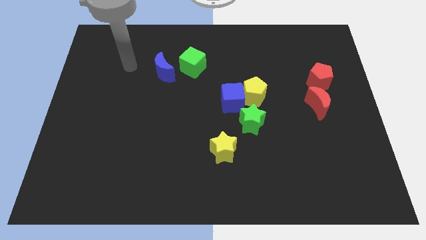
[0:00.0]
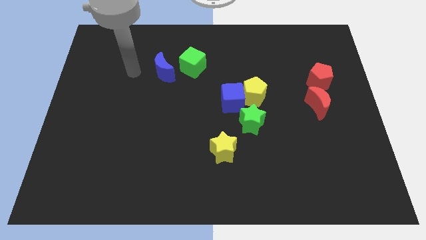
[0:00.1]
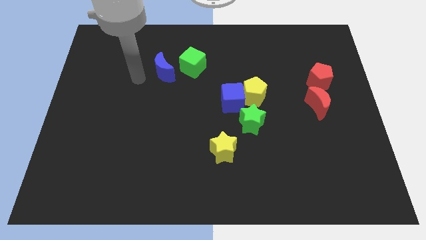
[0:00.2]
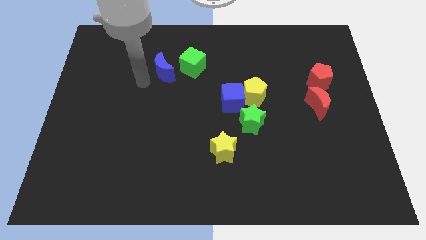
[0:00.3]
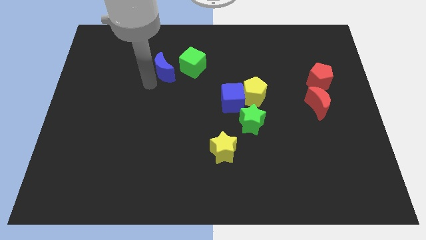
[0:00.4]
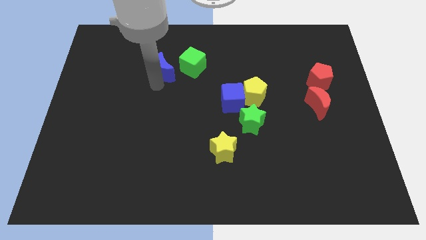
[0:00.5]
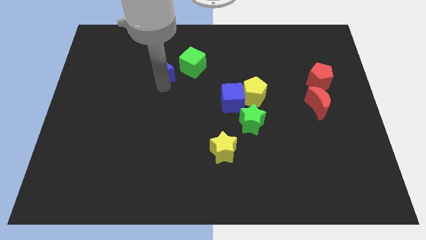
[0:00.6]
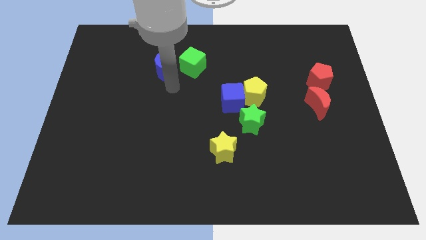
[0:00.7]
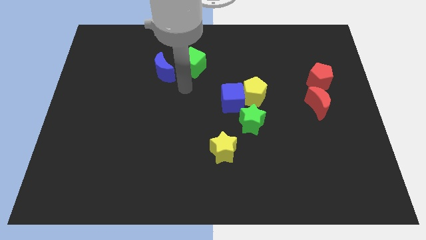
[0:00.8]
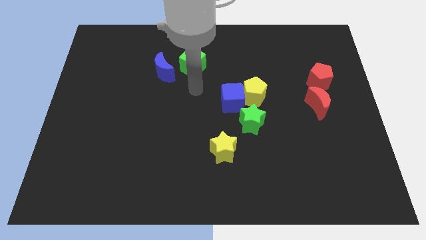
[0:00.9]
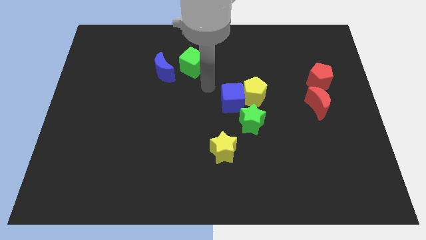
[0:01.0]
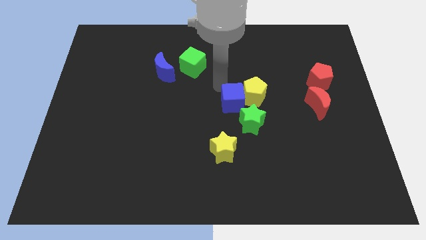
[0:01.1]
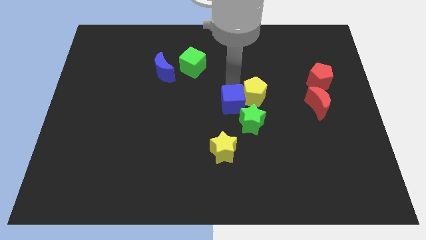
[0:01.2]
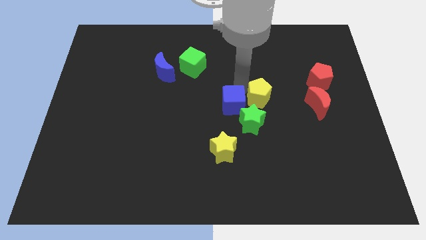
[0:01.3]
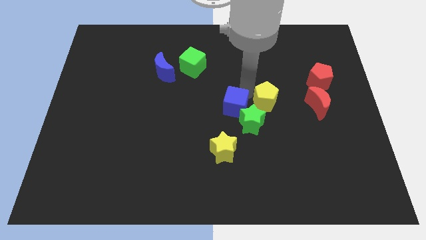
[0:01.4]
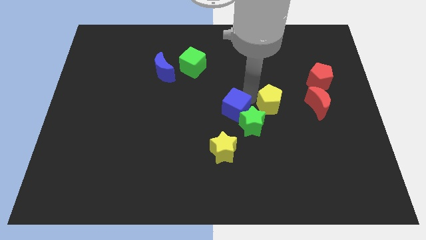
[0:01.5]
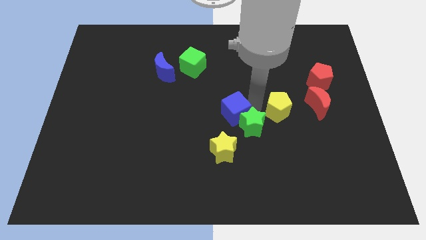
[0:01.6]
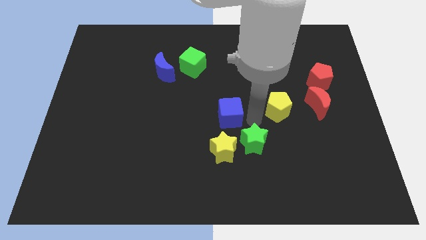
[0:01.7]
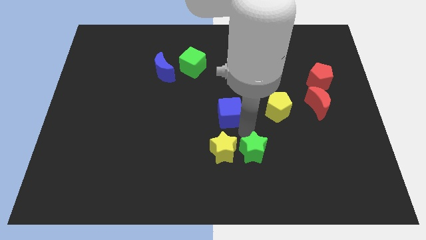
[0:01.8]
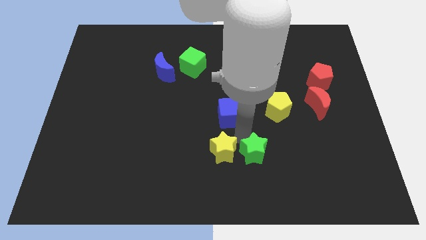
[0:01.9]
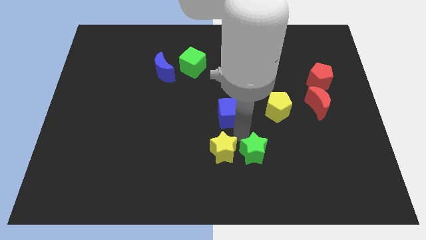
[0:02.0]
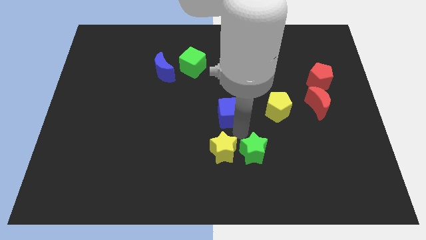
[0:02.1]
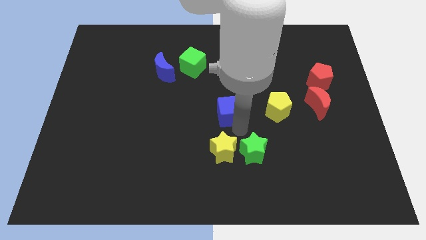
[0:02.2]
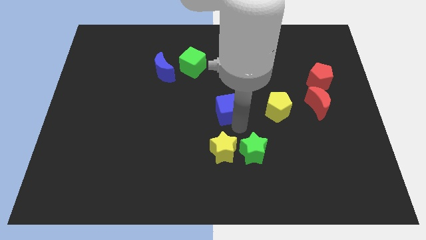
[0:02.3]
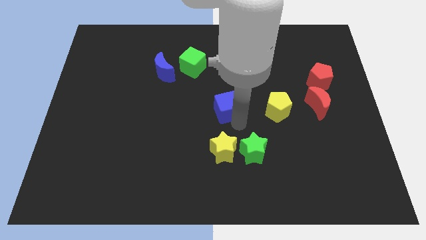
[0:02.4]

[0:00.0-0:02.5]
move the blue cube away from the yellow pentagon and green star

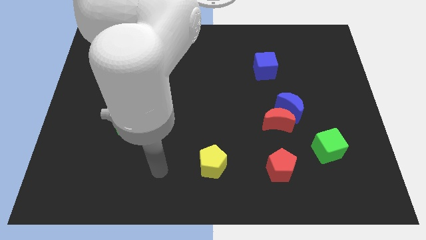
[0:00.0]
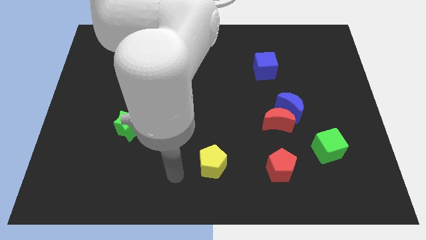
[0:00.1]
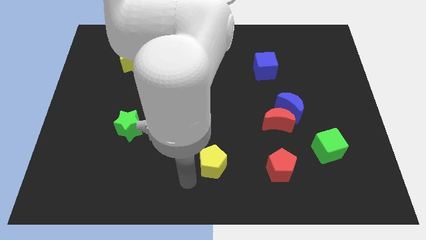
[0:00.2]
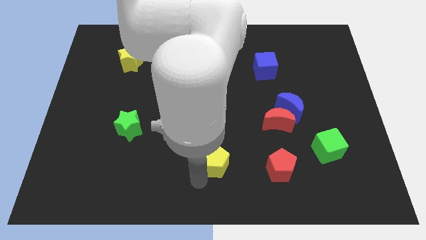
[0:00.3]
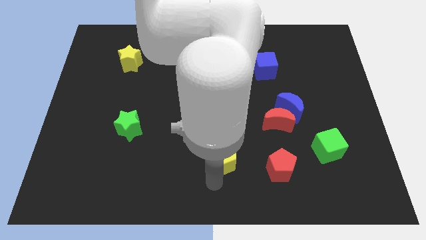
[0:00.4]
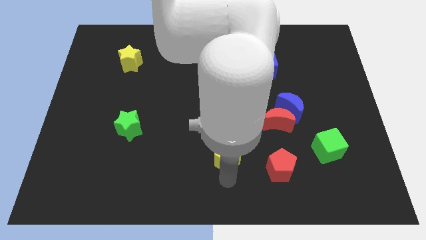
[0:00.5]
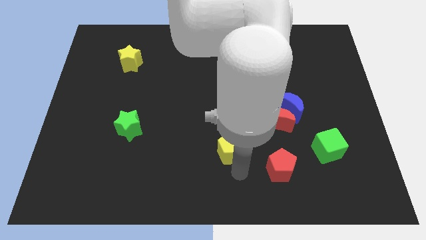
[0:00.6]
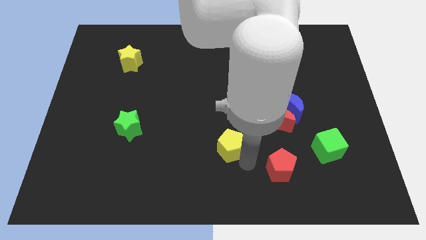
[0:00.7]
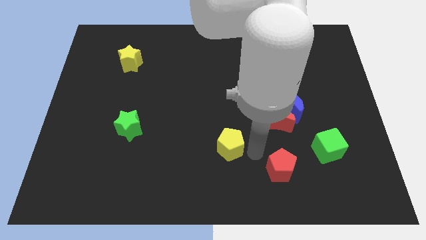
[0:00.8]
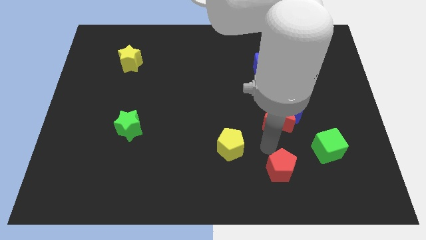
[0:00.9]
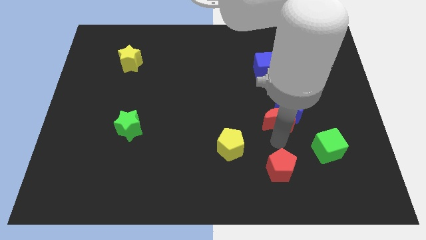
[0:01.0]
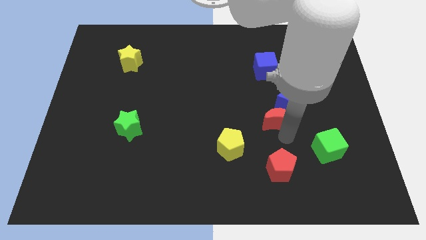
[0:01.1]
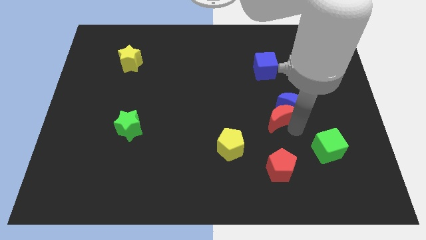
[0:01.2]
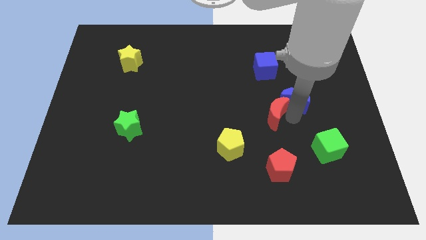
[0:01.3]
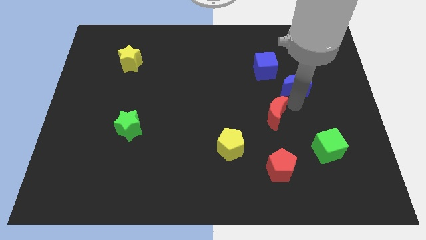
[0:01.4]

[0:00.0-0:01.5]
separate the red moon from the blue moon

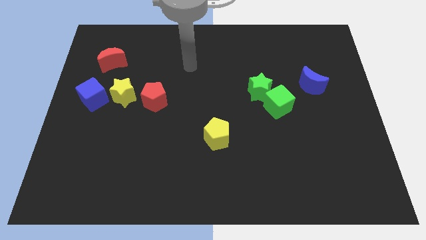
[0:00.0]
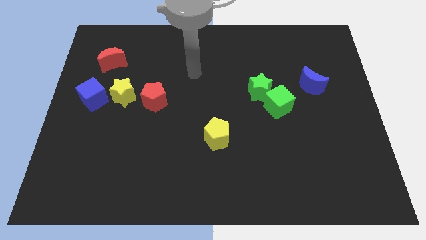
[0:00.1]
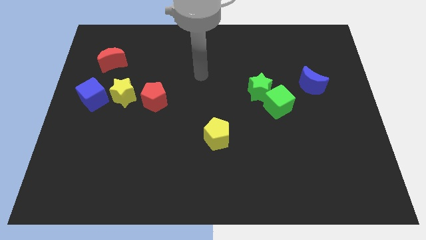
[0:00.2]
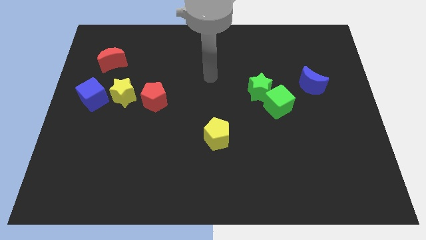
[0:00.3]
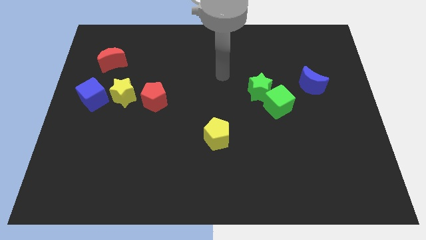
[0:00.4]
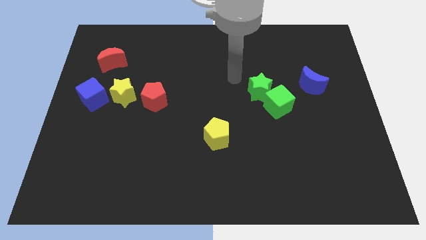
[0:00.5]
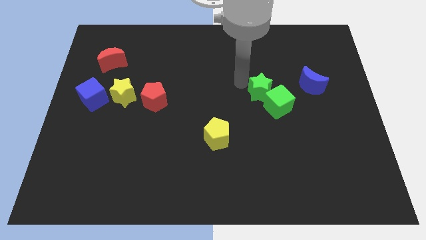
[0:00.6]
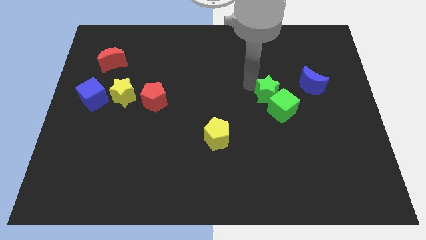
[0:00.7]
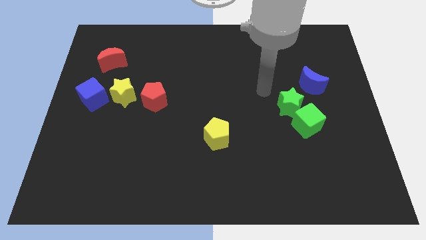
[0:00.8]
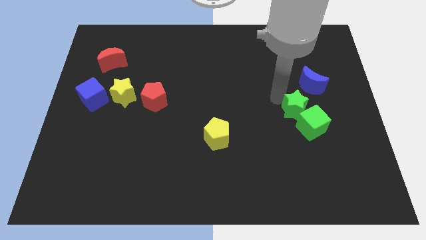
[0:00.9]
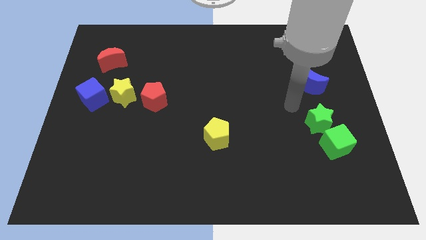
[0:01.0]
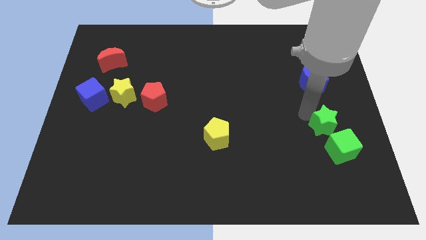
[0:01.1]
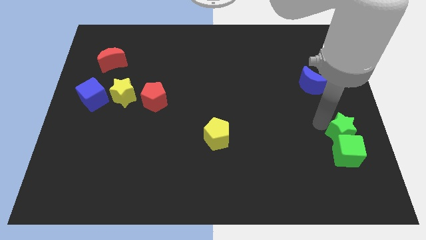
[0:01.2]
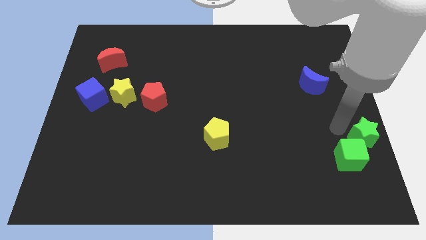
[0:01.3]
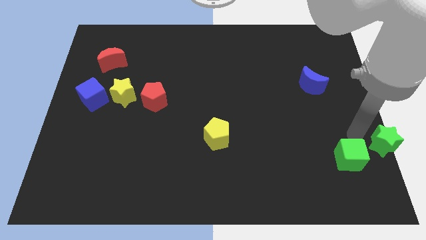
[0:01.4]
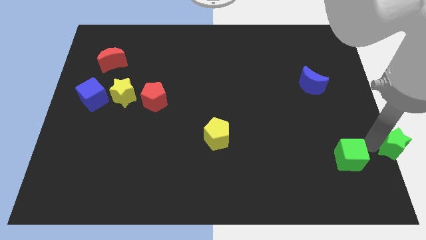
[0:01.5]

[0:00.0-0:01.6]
move the green cube away from the green star

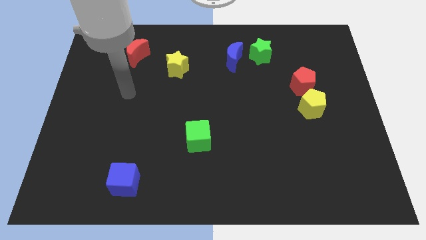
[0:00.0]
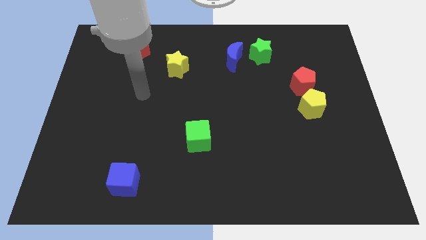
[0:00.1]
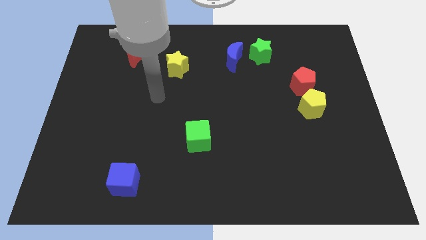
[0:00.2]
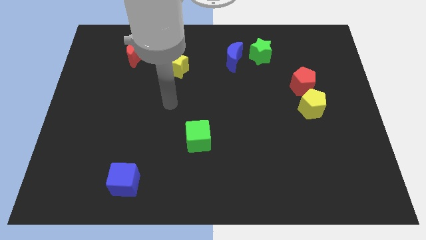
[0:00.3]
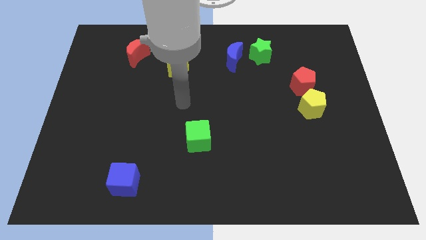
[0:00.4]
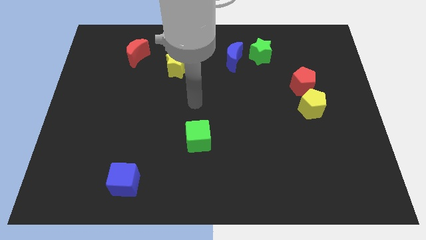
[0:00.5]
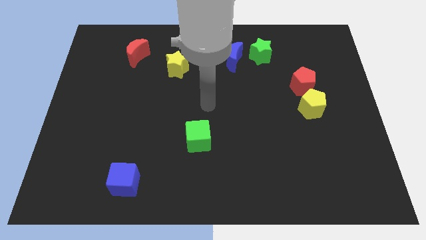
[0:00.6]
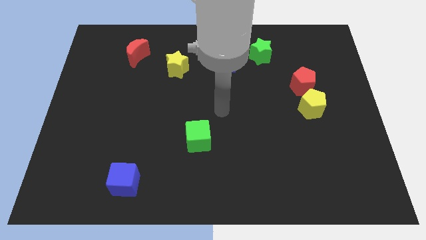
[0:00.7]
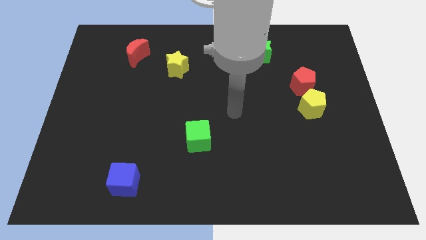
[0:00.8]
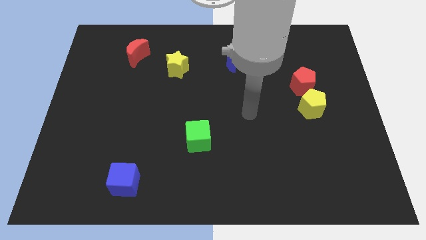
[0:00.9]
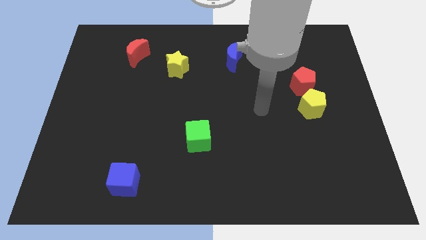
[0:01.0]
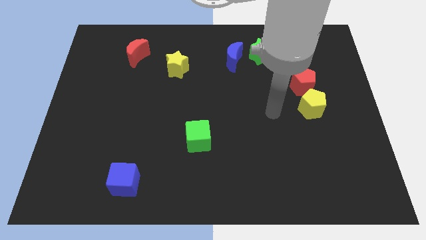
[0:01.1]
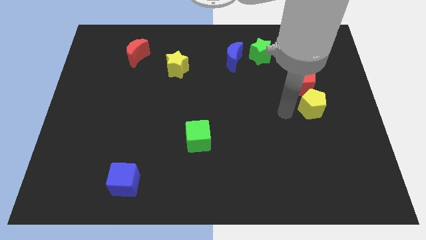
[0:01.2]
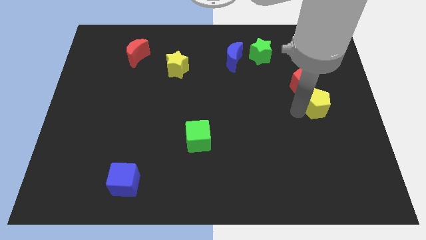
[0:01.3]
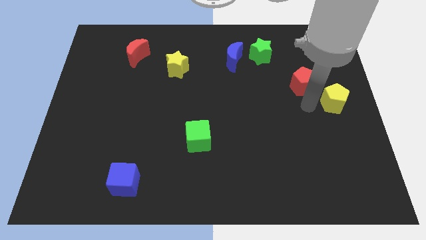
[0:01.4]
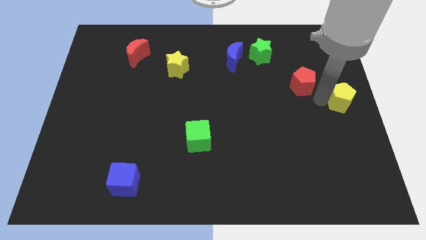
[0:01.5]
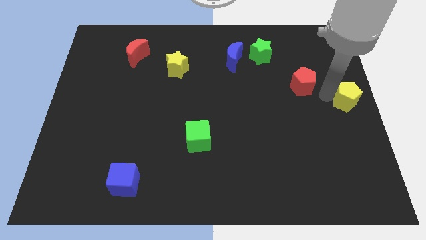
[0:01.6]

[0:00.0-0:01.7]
move the red pentagon away from the yellow pentagon

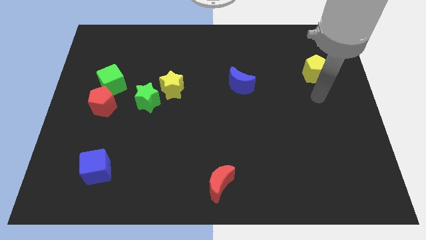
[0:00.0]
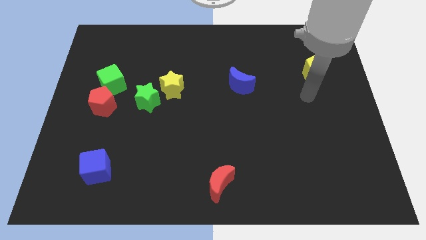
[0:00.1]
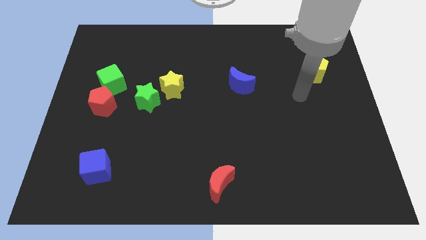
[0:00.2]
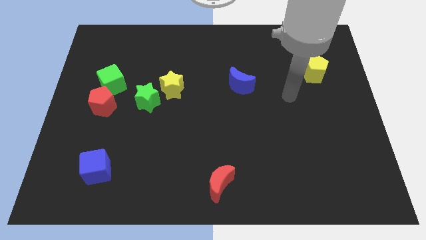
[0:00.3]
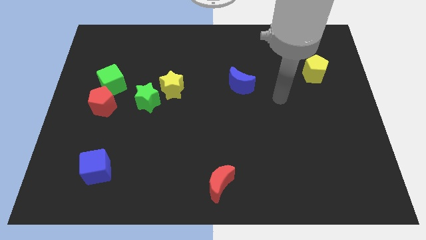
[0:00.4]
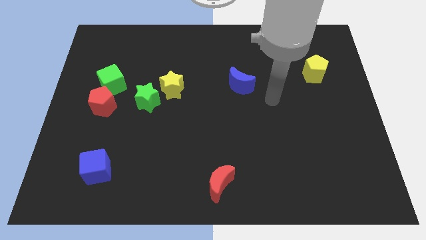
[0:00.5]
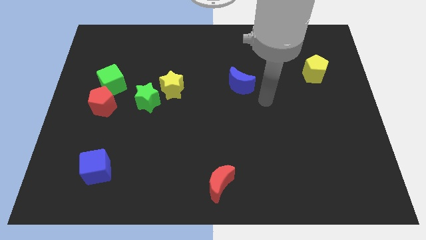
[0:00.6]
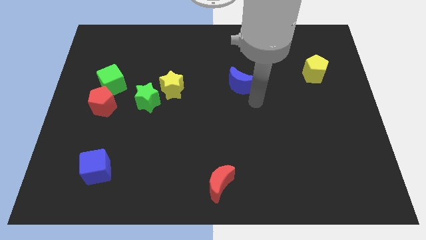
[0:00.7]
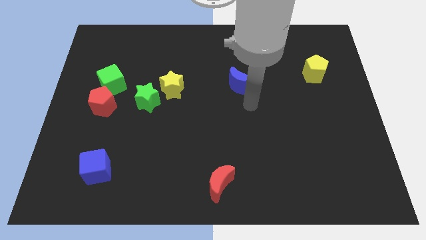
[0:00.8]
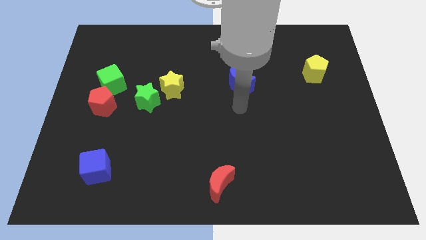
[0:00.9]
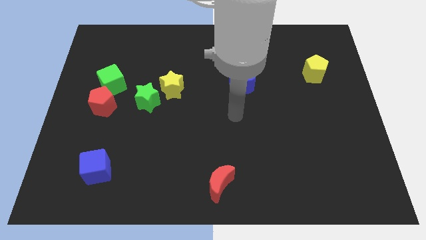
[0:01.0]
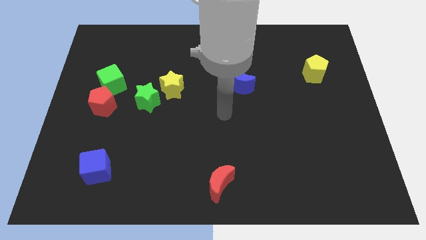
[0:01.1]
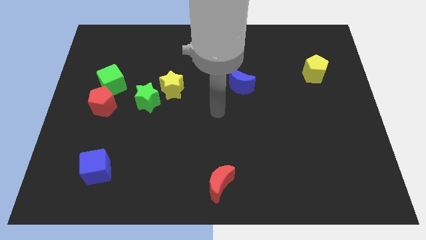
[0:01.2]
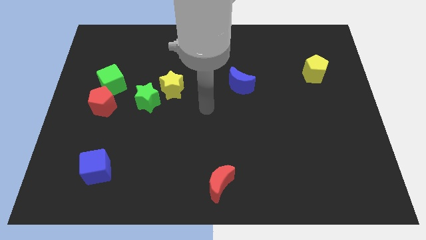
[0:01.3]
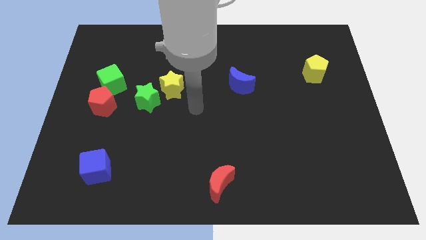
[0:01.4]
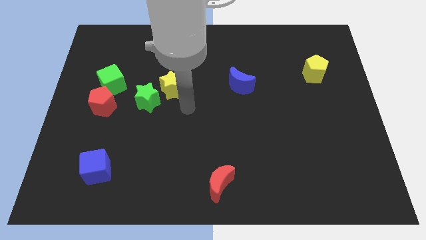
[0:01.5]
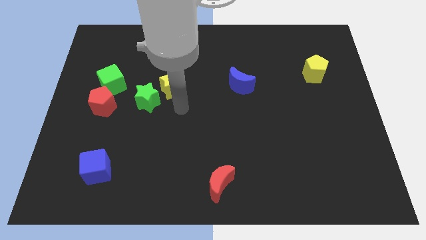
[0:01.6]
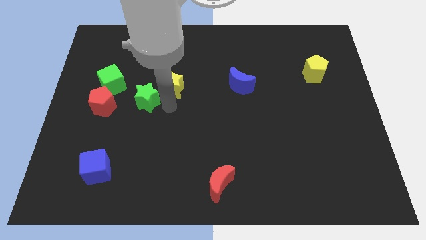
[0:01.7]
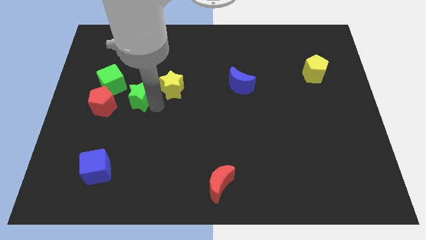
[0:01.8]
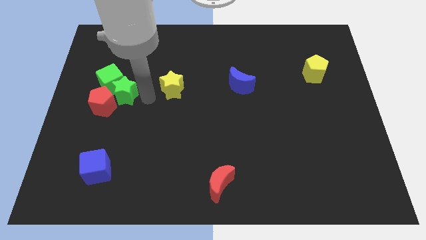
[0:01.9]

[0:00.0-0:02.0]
move the yellow star away from the green star
